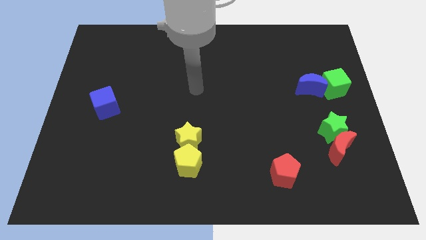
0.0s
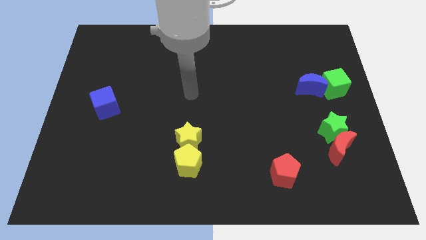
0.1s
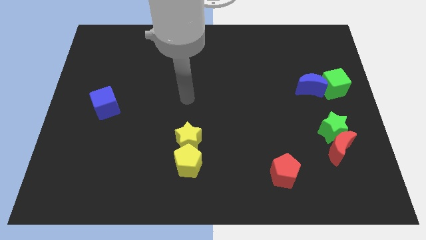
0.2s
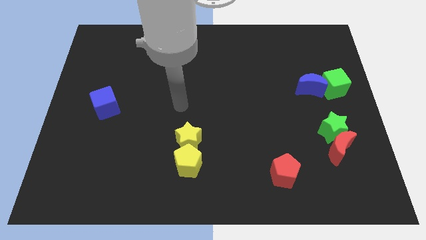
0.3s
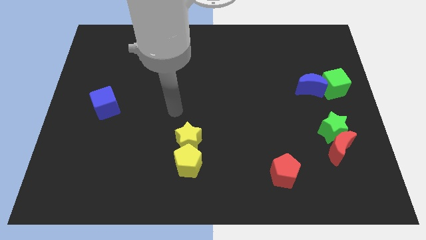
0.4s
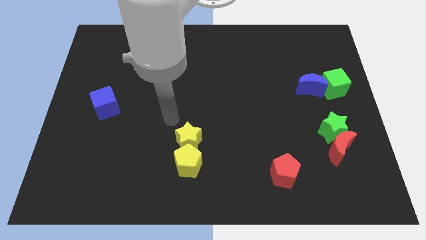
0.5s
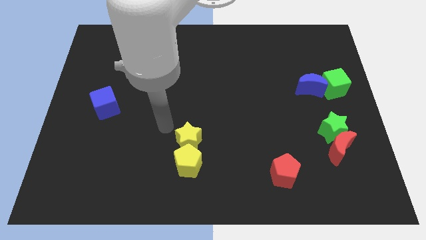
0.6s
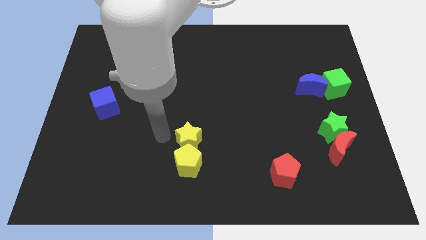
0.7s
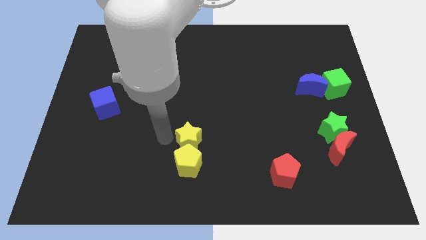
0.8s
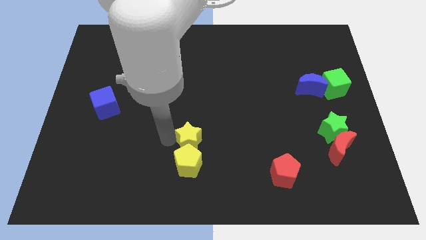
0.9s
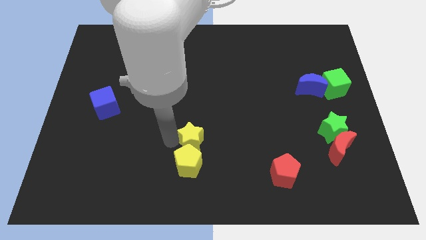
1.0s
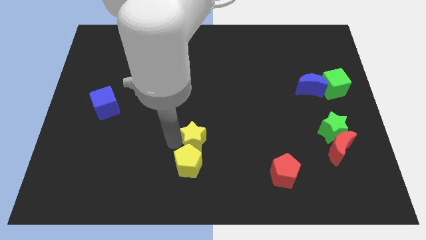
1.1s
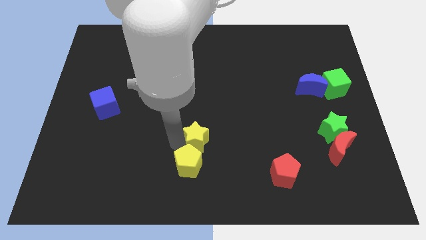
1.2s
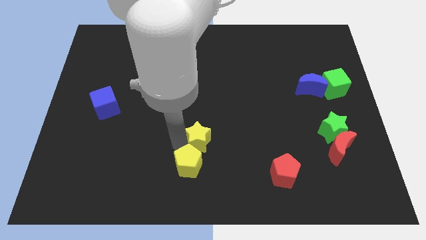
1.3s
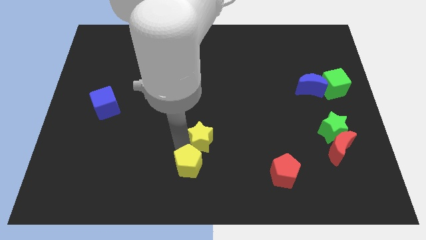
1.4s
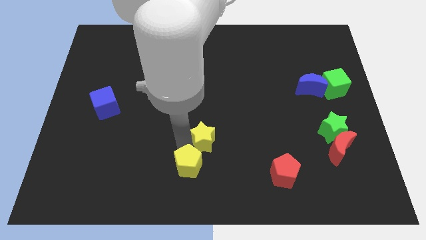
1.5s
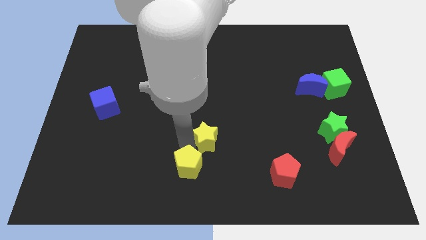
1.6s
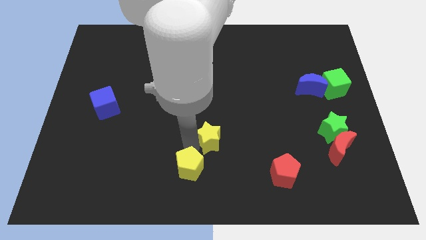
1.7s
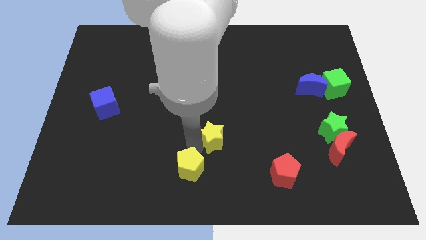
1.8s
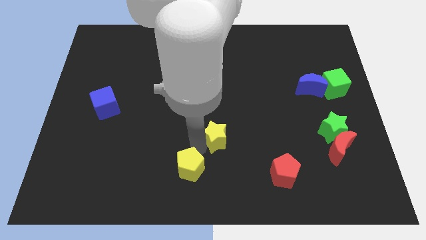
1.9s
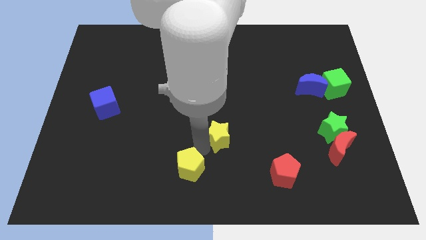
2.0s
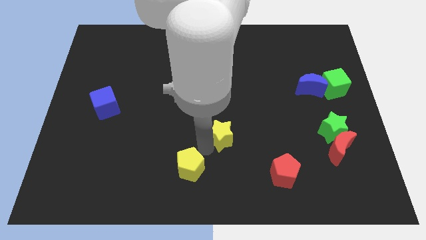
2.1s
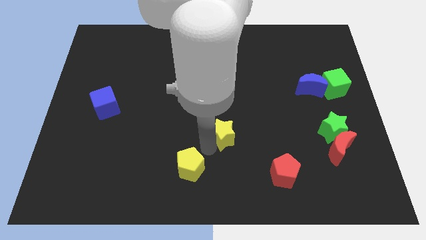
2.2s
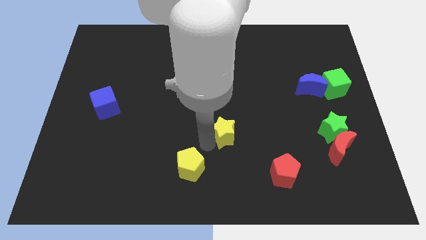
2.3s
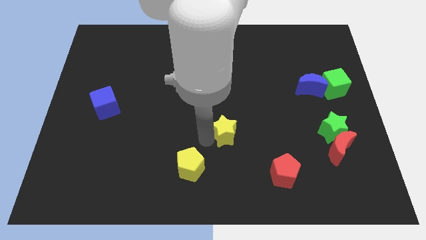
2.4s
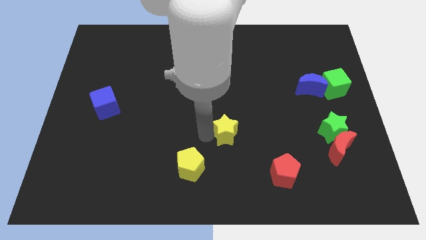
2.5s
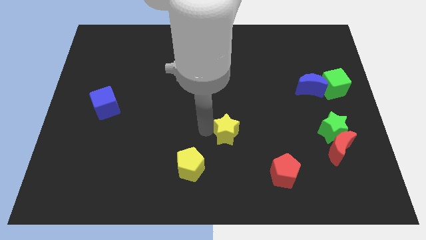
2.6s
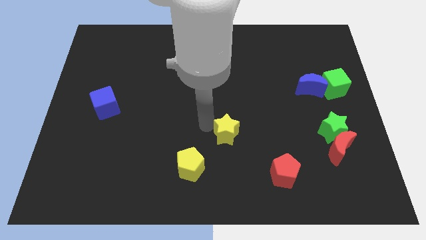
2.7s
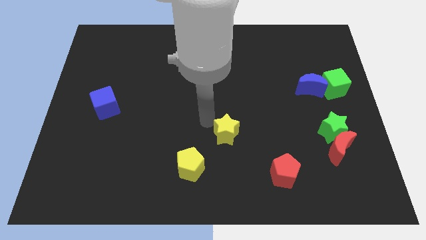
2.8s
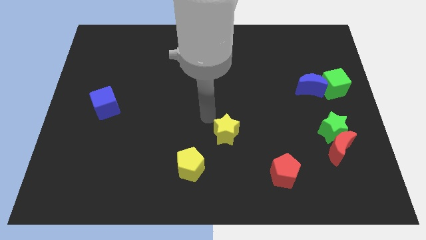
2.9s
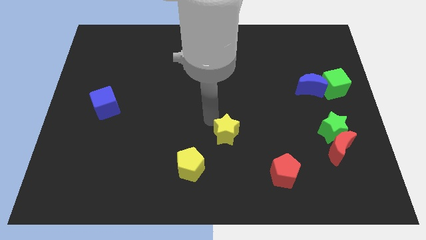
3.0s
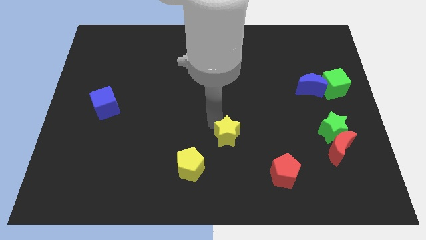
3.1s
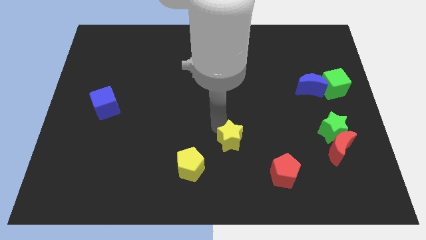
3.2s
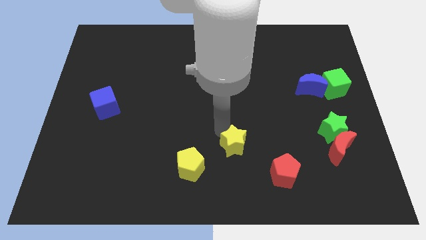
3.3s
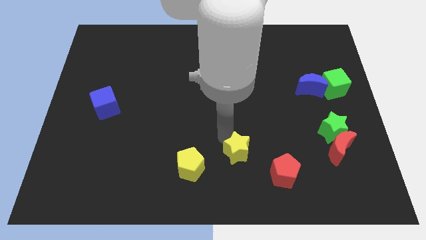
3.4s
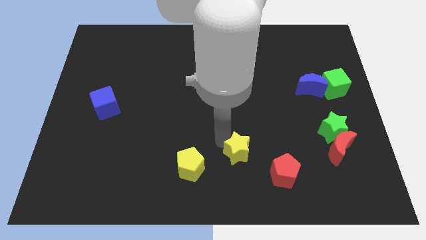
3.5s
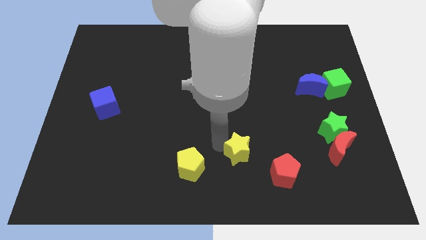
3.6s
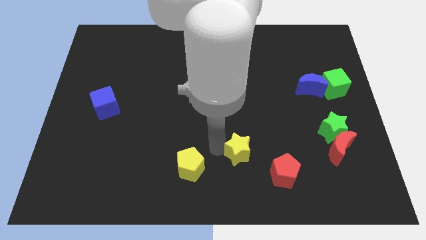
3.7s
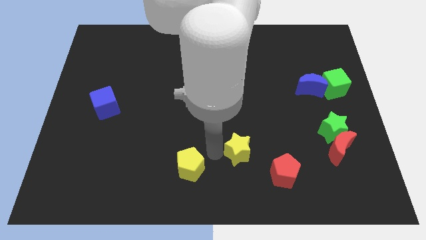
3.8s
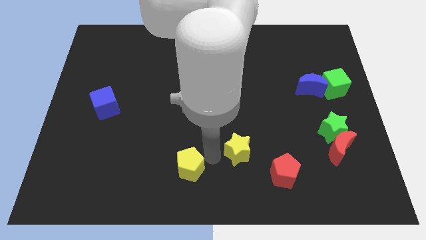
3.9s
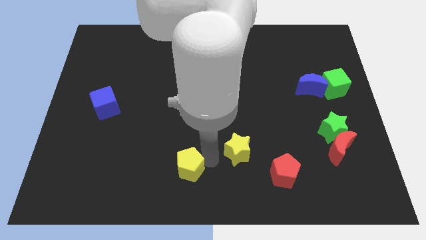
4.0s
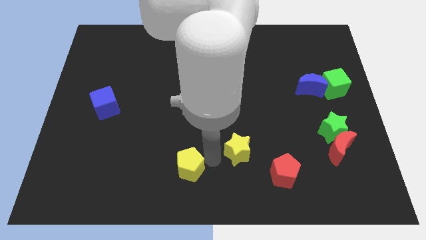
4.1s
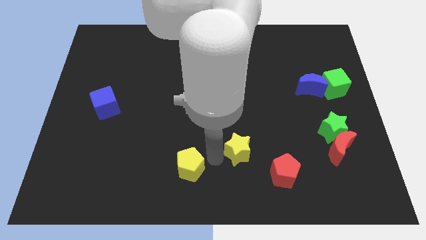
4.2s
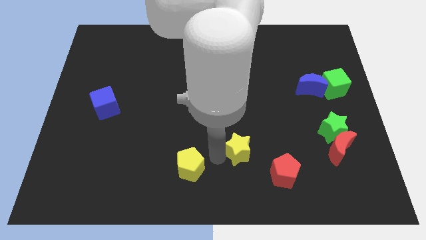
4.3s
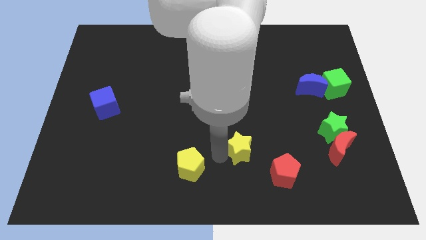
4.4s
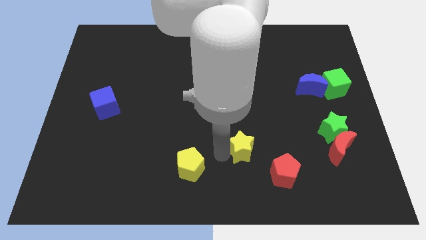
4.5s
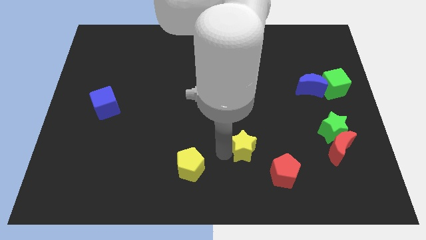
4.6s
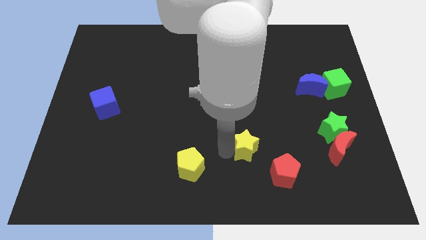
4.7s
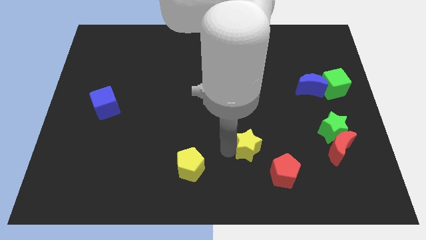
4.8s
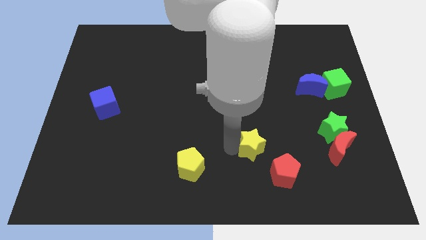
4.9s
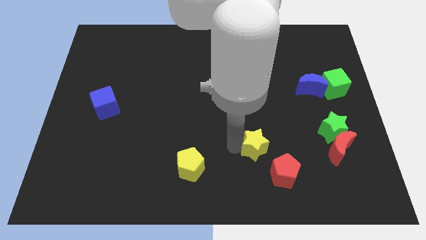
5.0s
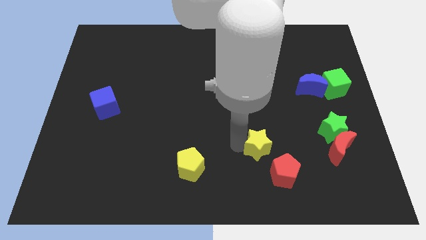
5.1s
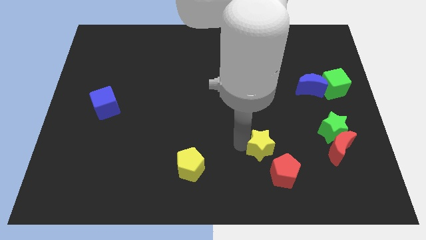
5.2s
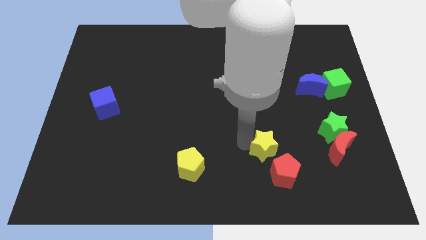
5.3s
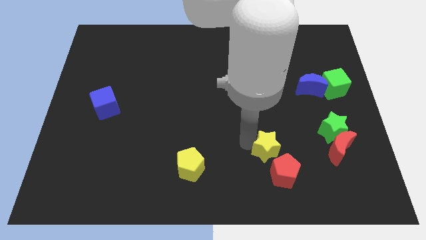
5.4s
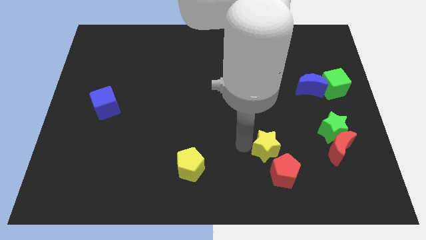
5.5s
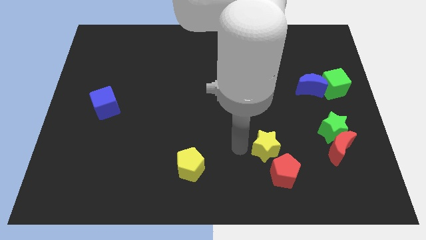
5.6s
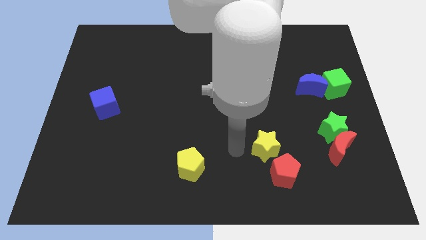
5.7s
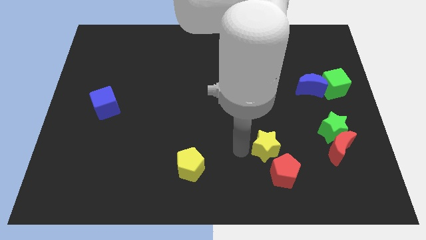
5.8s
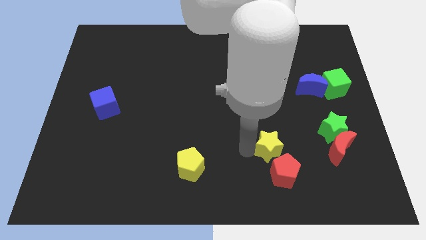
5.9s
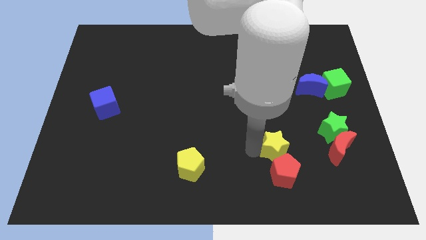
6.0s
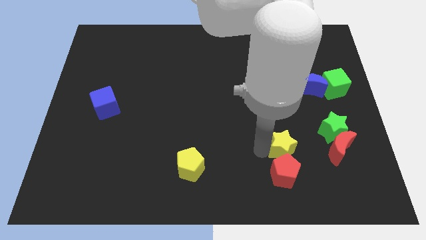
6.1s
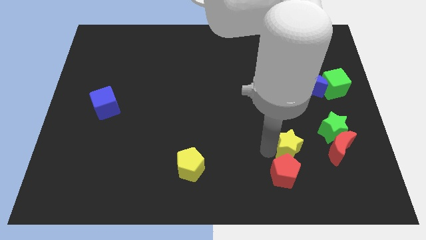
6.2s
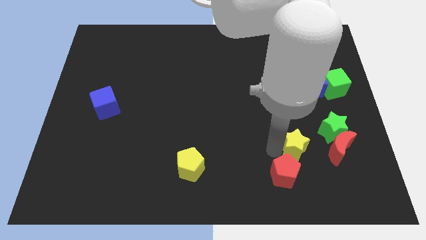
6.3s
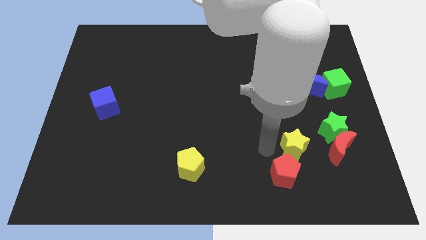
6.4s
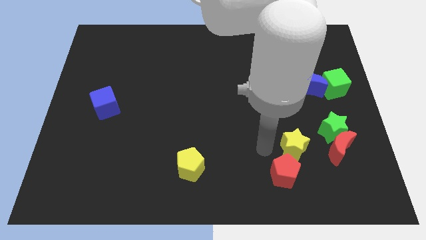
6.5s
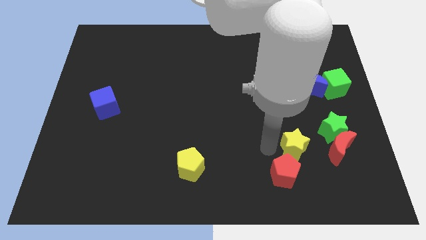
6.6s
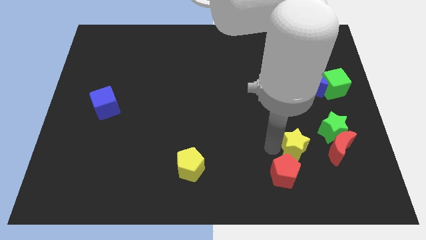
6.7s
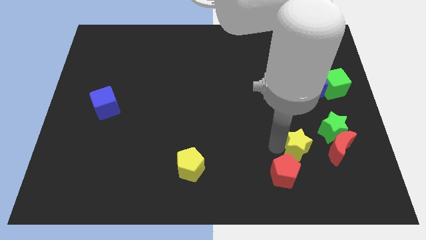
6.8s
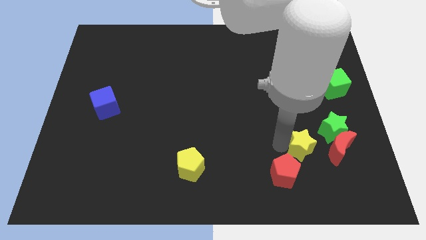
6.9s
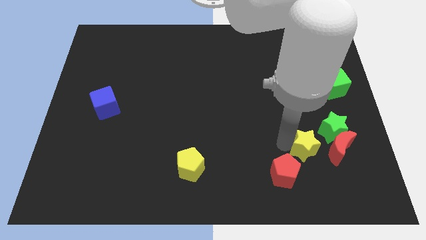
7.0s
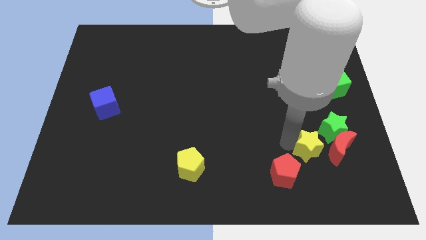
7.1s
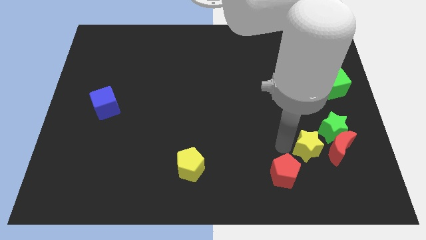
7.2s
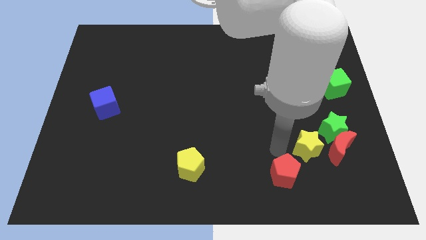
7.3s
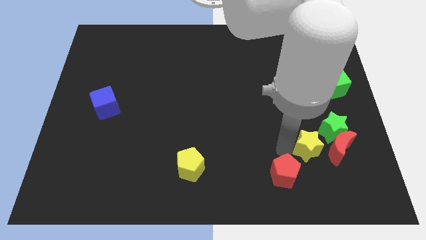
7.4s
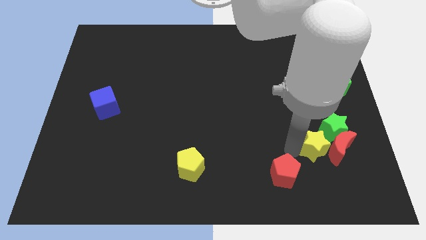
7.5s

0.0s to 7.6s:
slide the yellow star to the red moon
